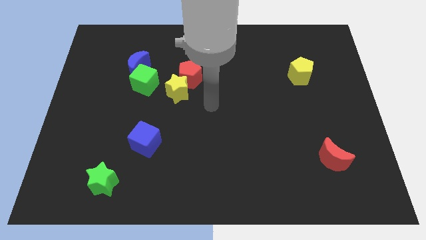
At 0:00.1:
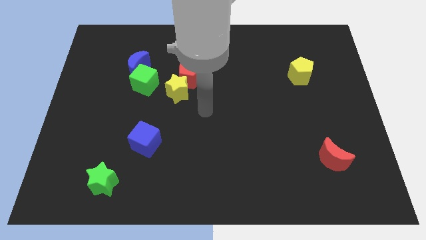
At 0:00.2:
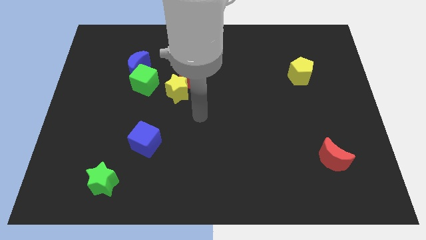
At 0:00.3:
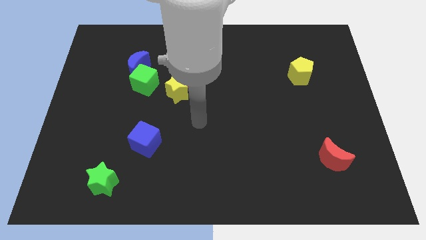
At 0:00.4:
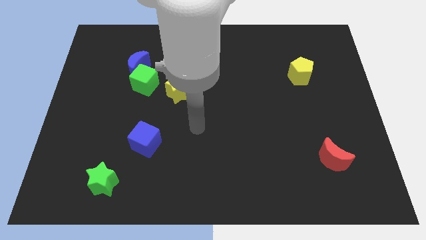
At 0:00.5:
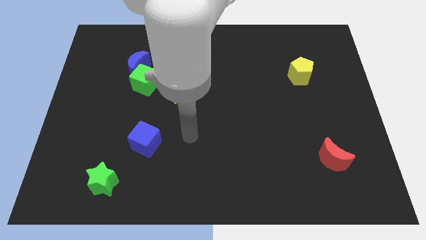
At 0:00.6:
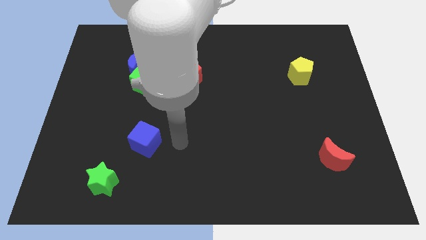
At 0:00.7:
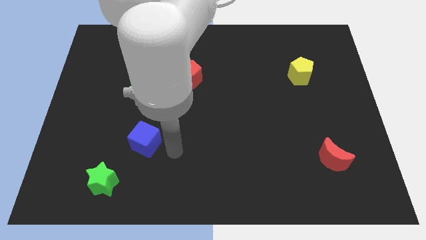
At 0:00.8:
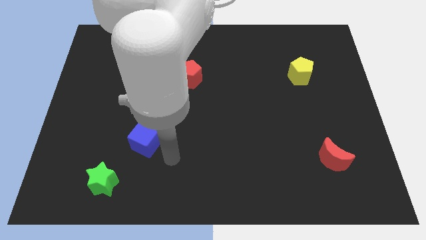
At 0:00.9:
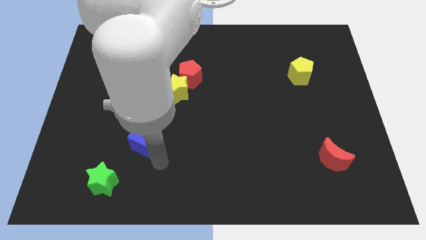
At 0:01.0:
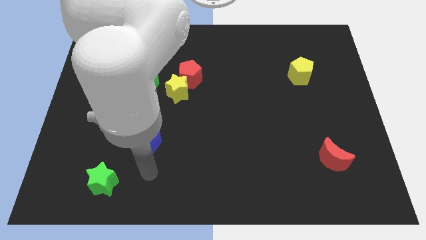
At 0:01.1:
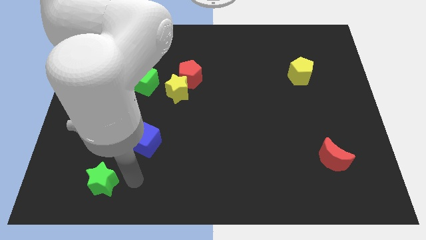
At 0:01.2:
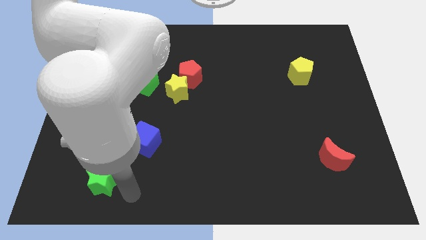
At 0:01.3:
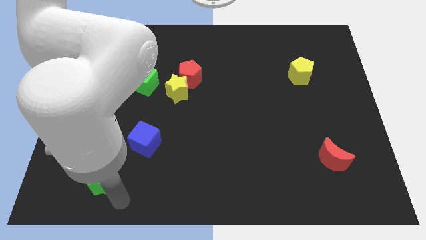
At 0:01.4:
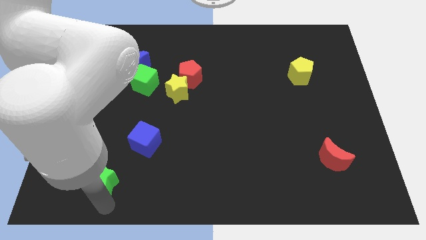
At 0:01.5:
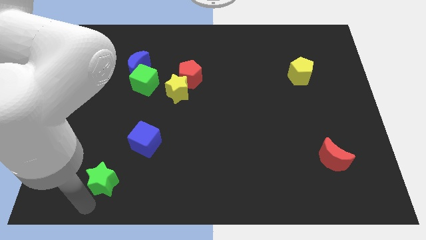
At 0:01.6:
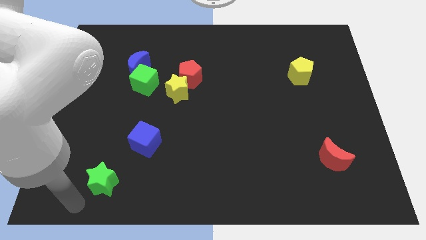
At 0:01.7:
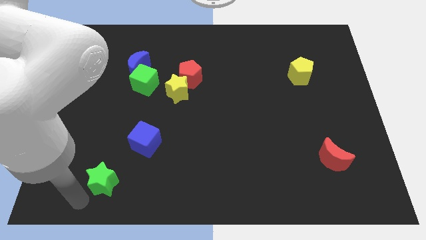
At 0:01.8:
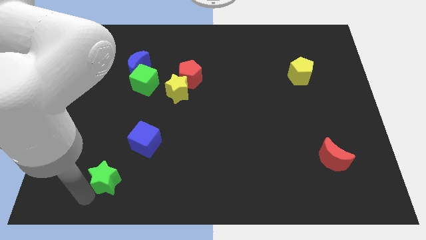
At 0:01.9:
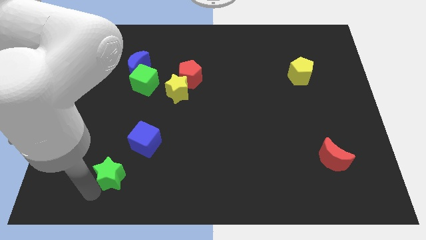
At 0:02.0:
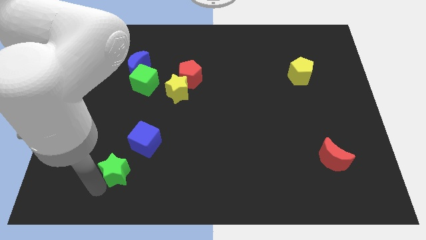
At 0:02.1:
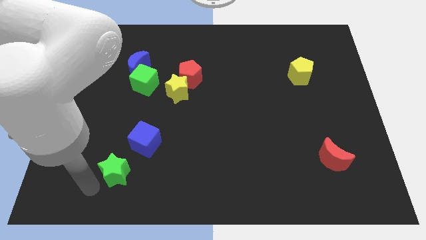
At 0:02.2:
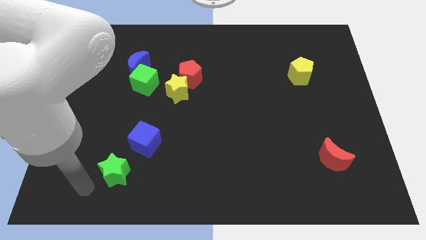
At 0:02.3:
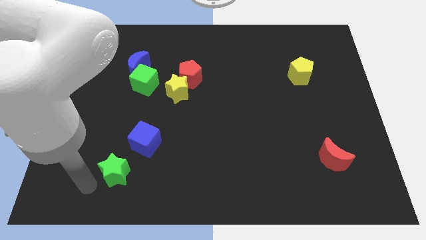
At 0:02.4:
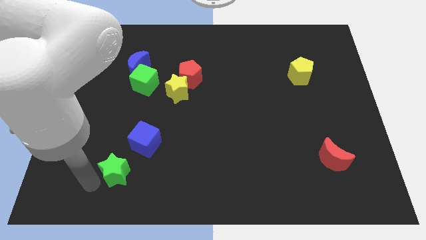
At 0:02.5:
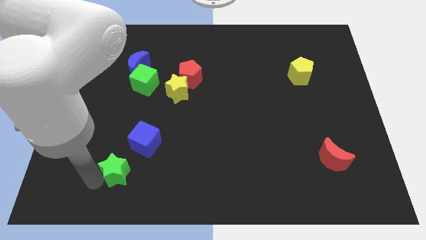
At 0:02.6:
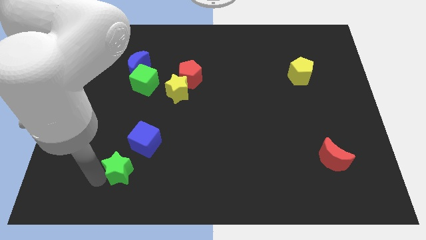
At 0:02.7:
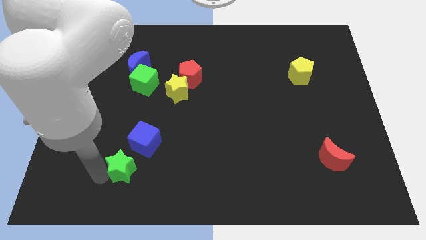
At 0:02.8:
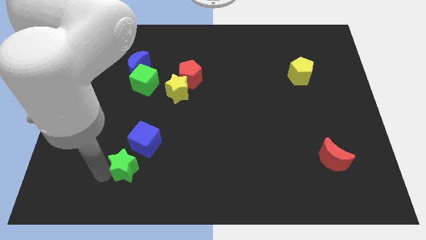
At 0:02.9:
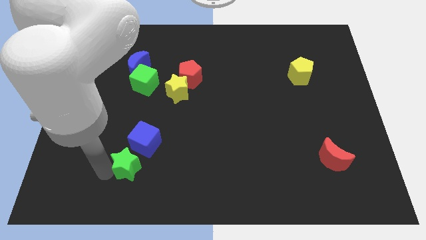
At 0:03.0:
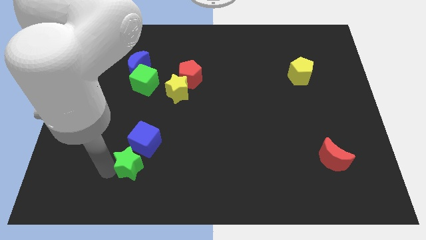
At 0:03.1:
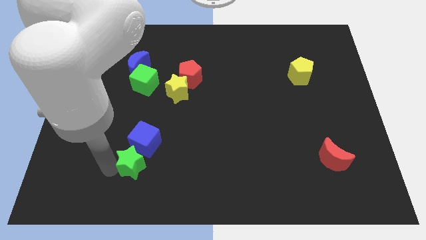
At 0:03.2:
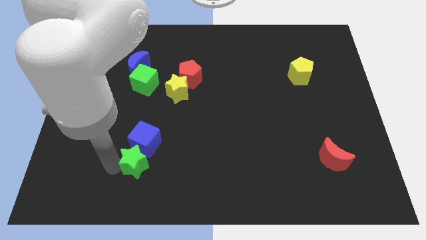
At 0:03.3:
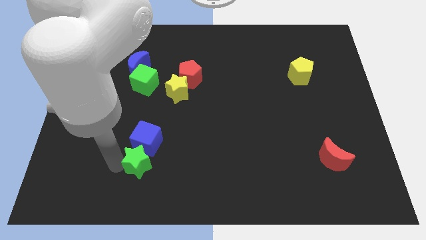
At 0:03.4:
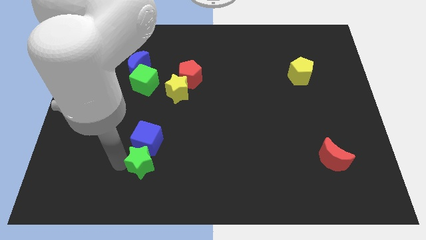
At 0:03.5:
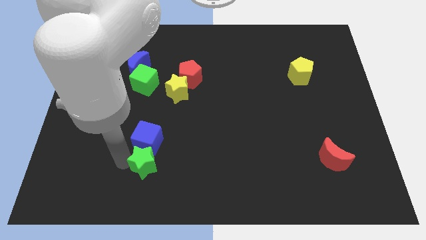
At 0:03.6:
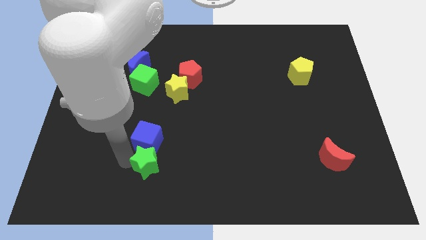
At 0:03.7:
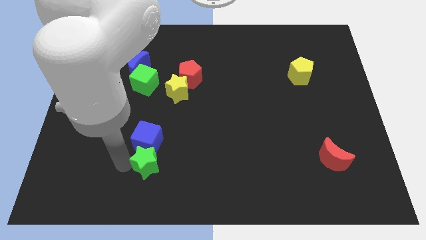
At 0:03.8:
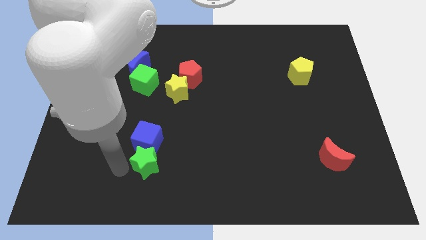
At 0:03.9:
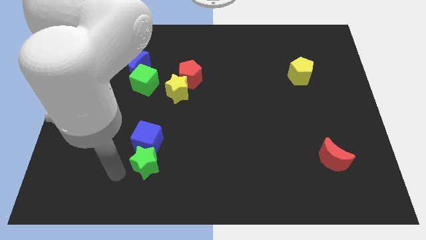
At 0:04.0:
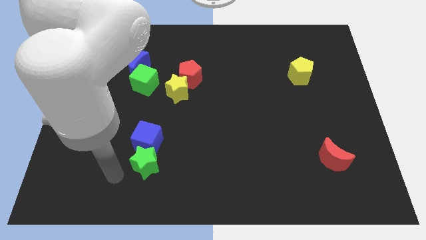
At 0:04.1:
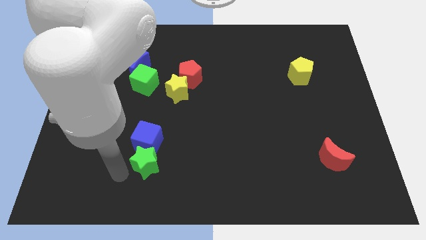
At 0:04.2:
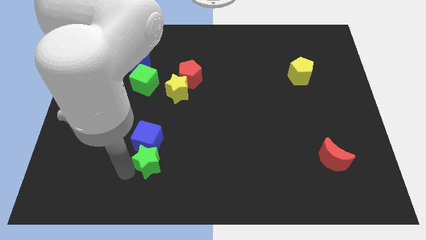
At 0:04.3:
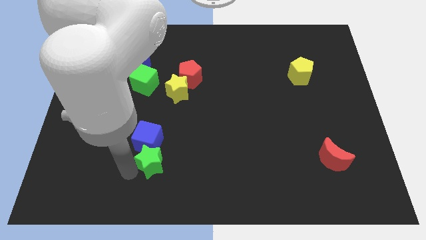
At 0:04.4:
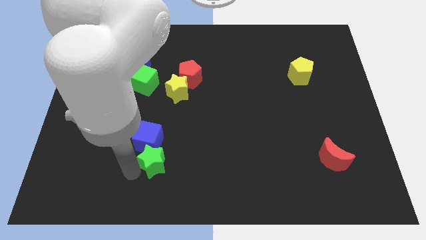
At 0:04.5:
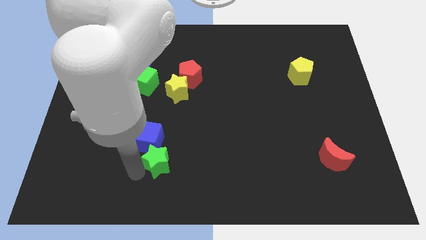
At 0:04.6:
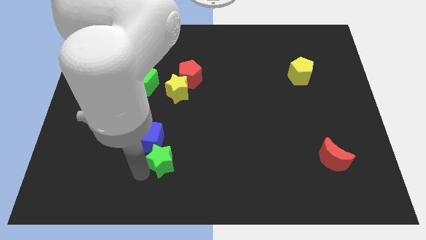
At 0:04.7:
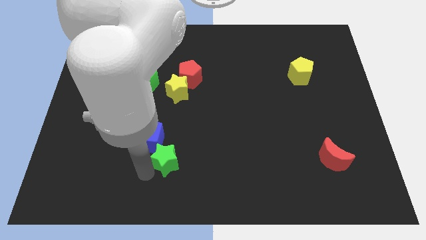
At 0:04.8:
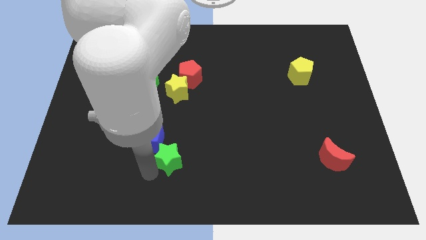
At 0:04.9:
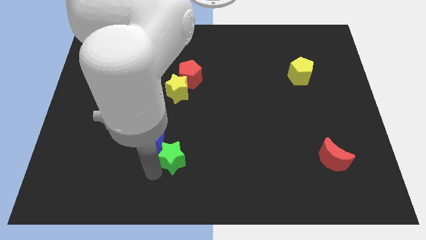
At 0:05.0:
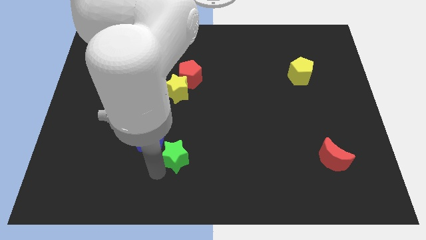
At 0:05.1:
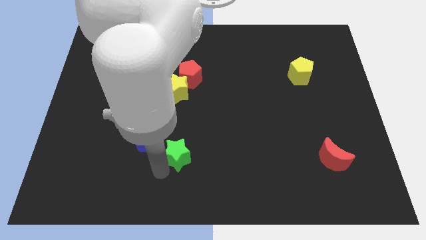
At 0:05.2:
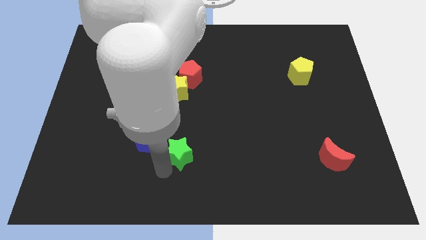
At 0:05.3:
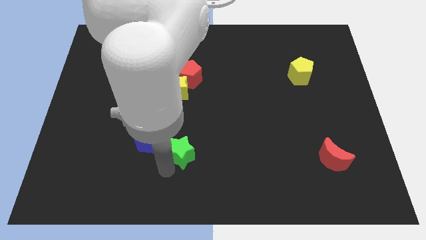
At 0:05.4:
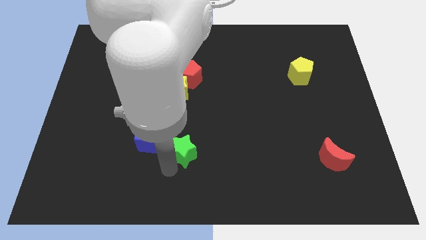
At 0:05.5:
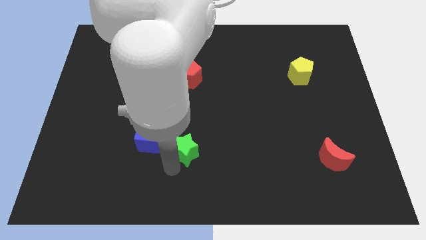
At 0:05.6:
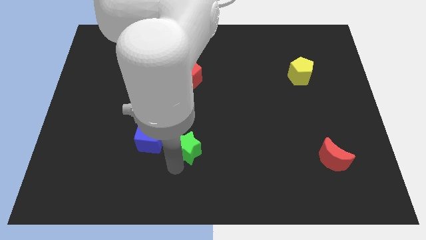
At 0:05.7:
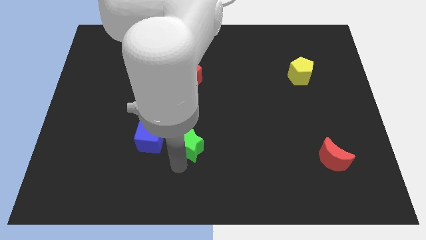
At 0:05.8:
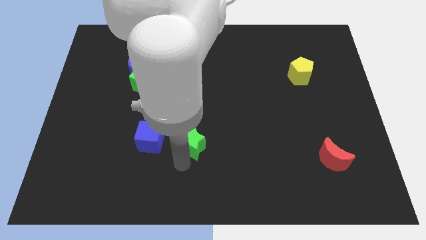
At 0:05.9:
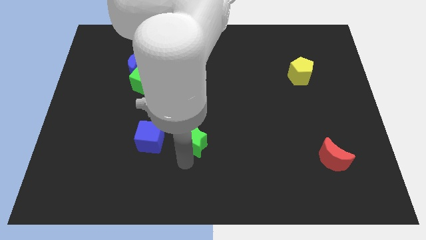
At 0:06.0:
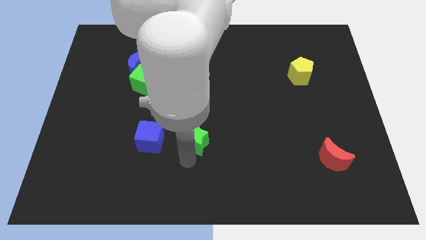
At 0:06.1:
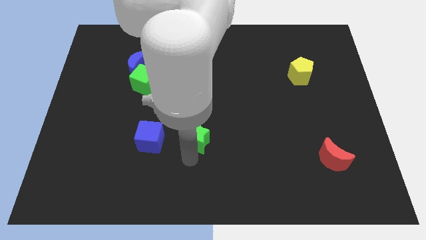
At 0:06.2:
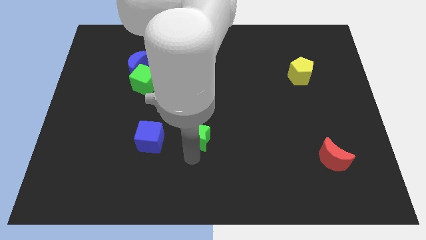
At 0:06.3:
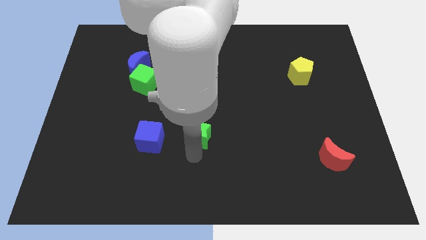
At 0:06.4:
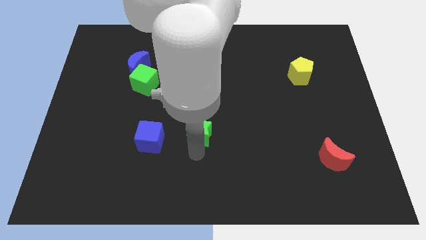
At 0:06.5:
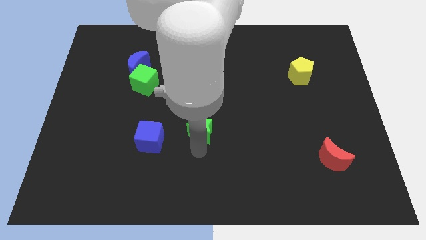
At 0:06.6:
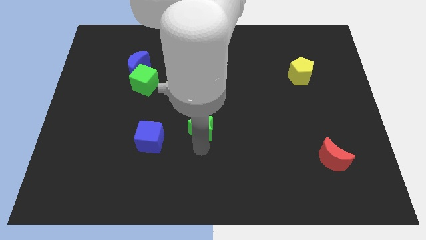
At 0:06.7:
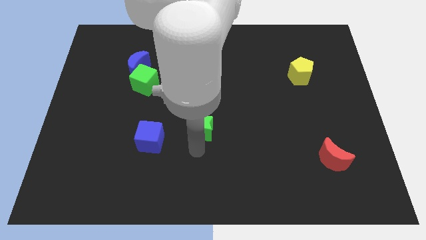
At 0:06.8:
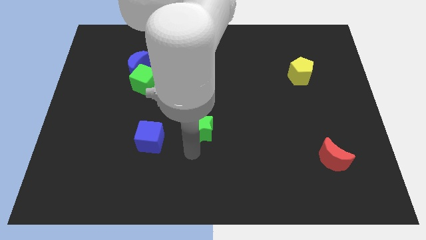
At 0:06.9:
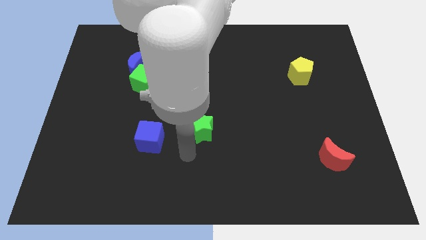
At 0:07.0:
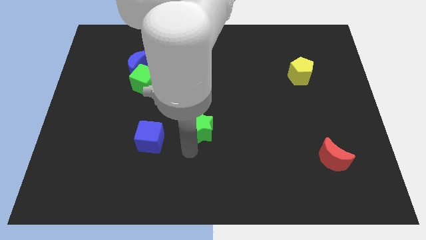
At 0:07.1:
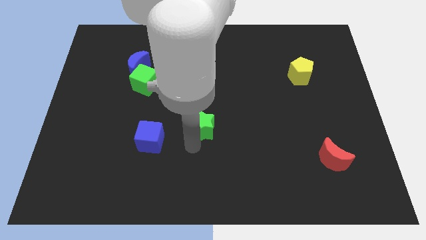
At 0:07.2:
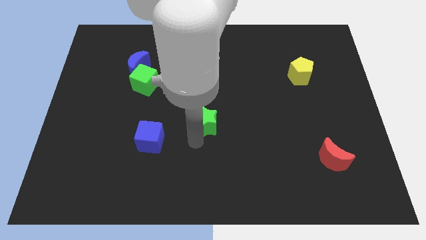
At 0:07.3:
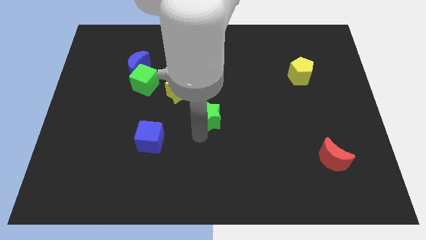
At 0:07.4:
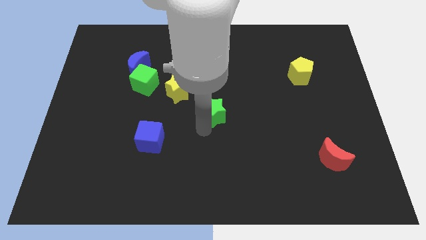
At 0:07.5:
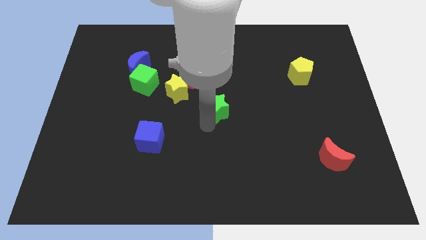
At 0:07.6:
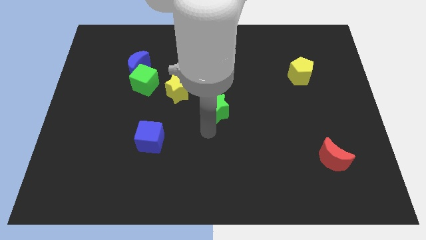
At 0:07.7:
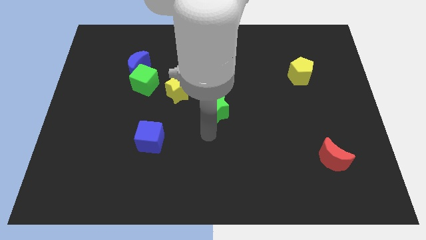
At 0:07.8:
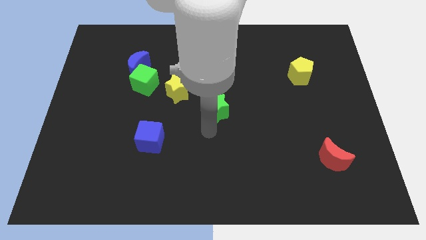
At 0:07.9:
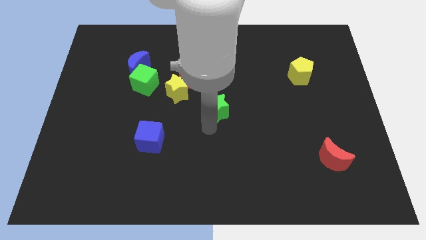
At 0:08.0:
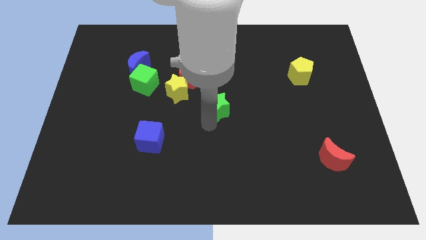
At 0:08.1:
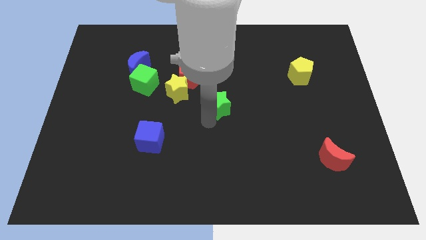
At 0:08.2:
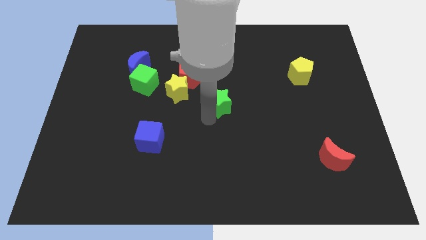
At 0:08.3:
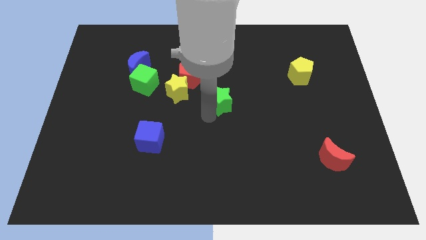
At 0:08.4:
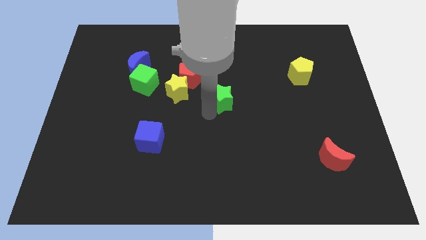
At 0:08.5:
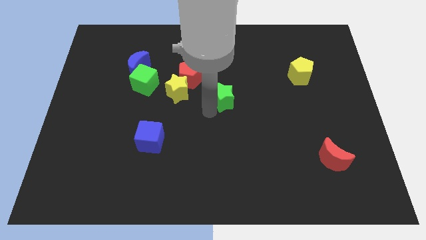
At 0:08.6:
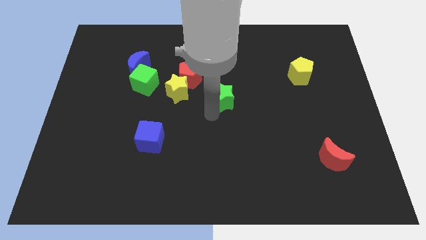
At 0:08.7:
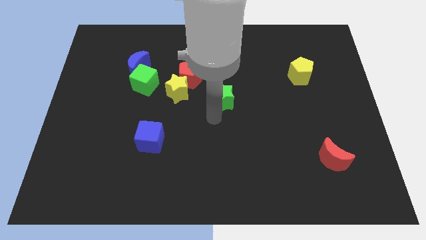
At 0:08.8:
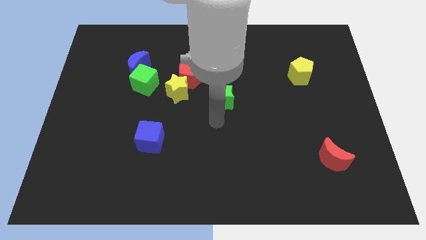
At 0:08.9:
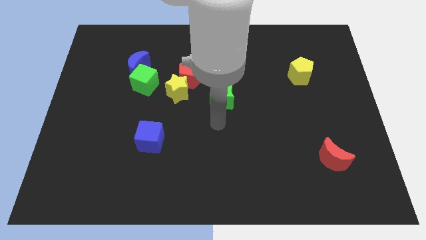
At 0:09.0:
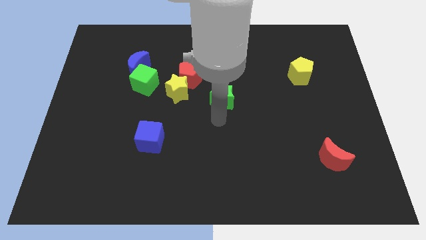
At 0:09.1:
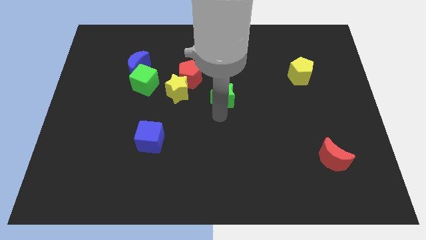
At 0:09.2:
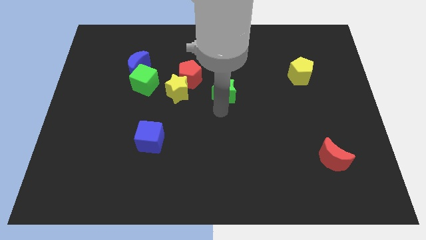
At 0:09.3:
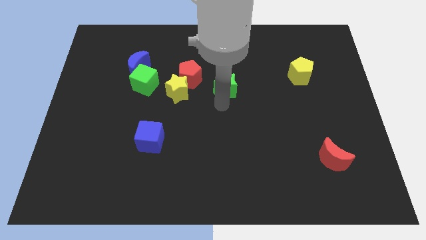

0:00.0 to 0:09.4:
push the green star to the right side of the red pentagon
